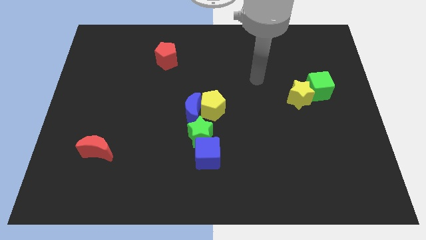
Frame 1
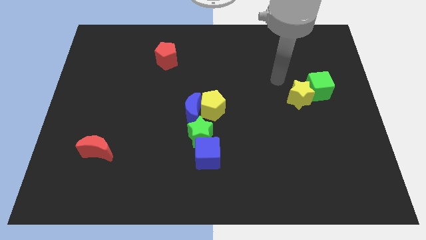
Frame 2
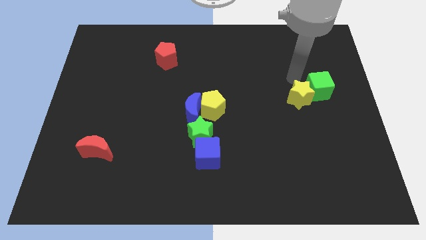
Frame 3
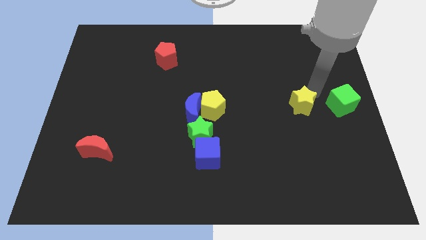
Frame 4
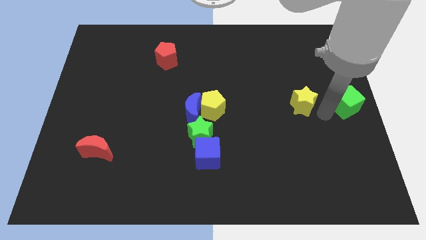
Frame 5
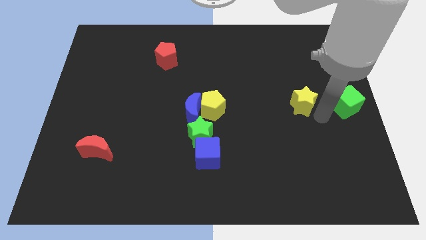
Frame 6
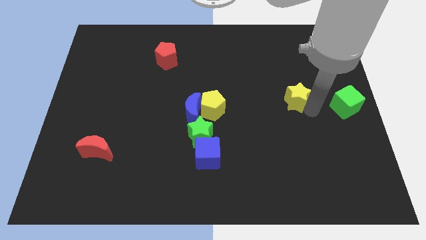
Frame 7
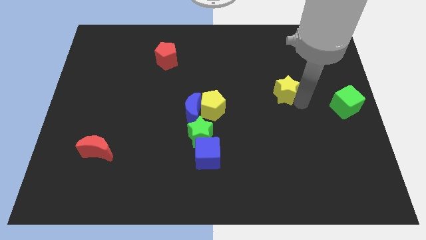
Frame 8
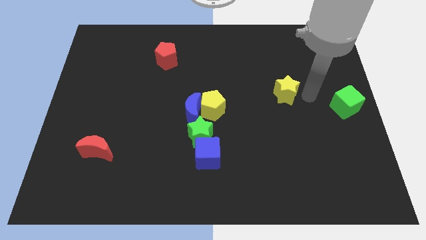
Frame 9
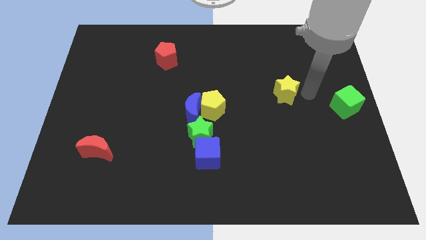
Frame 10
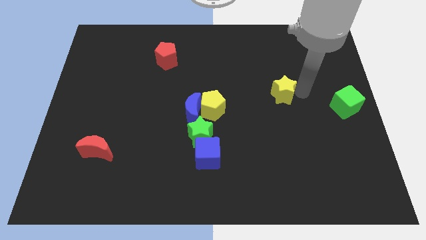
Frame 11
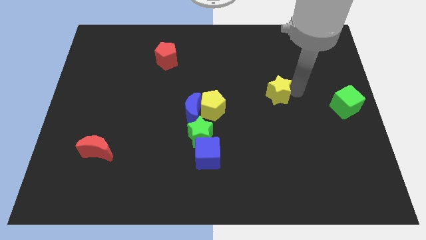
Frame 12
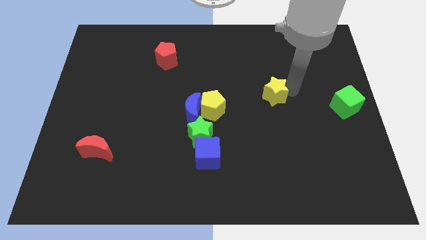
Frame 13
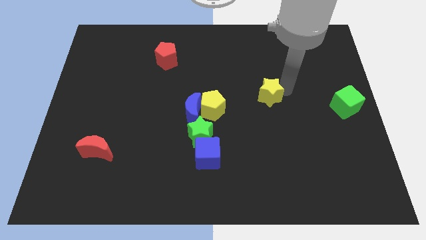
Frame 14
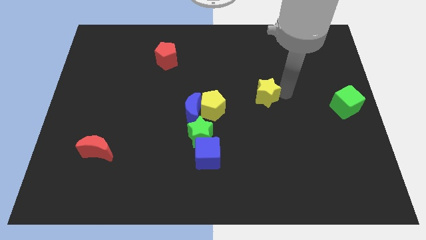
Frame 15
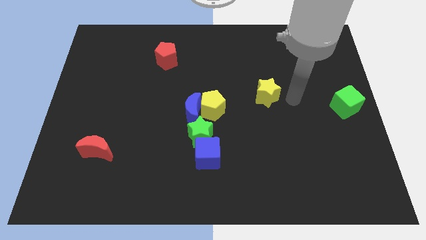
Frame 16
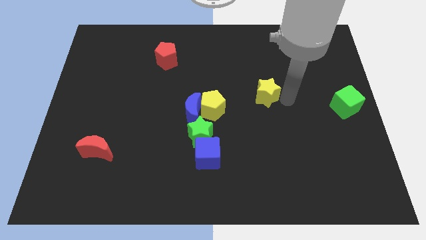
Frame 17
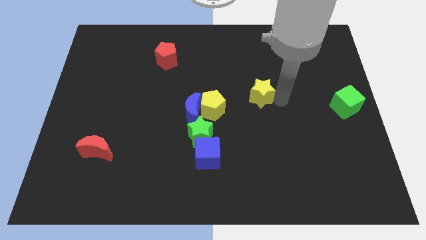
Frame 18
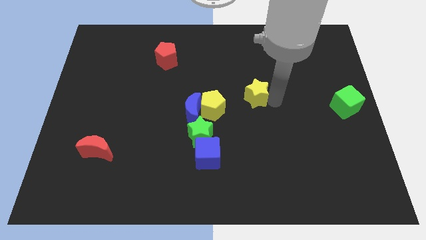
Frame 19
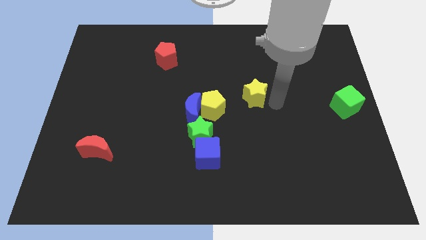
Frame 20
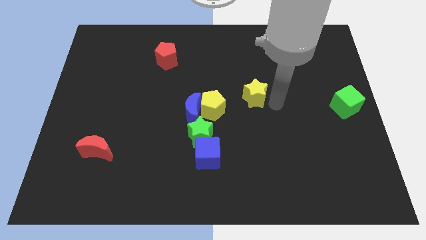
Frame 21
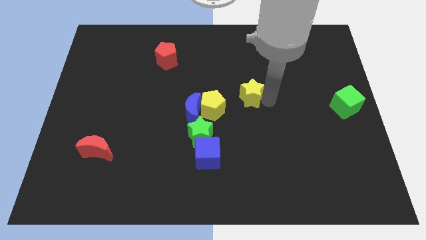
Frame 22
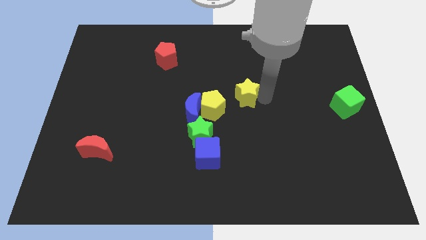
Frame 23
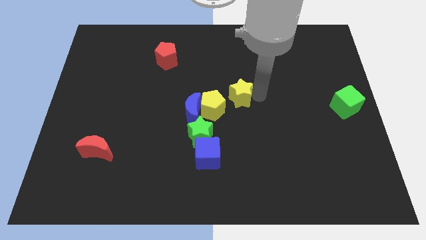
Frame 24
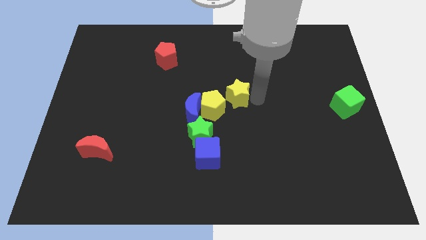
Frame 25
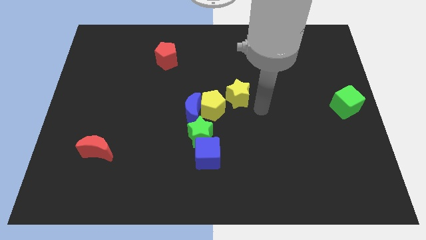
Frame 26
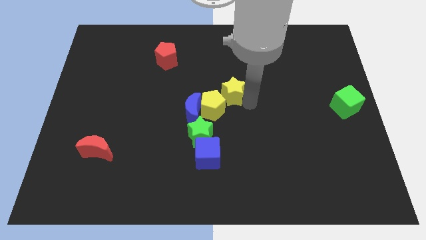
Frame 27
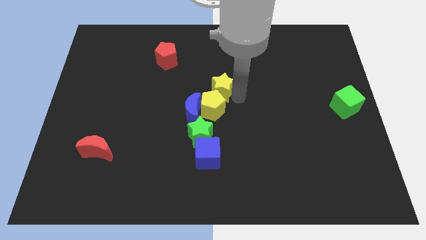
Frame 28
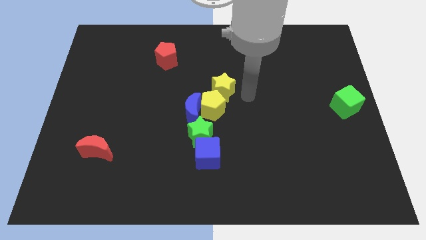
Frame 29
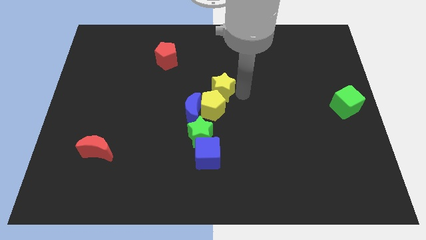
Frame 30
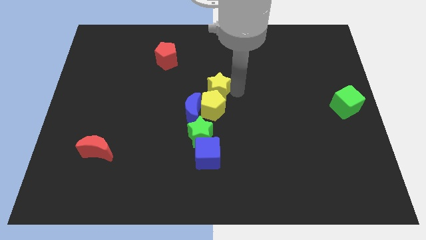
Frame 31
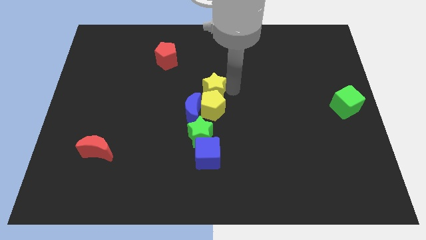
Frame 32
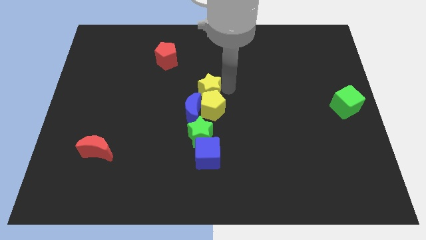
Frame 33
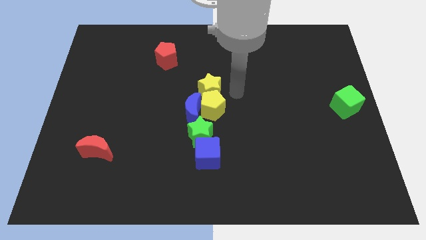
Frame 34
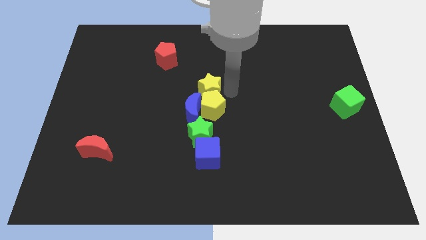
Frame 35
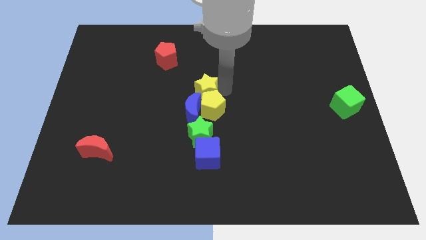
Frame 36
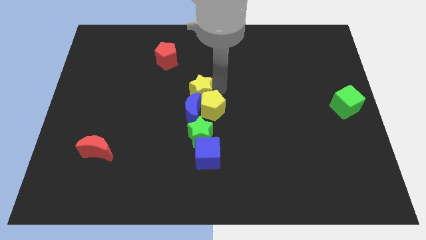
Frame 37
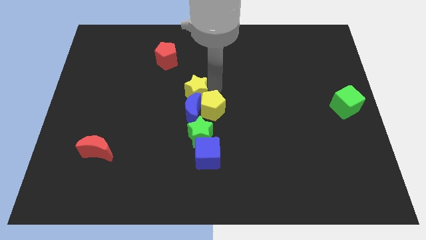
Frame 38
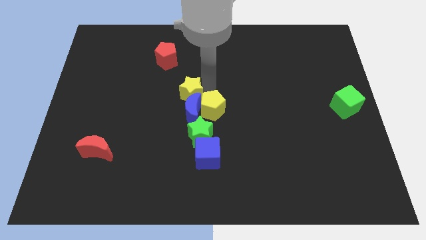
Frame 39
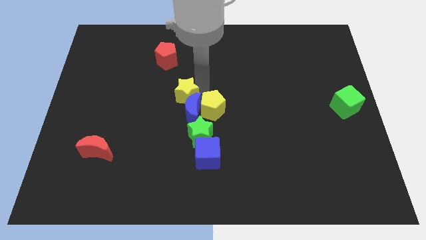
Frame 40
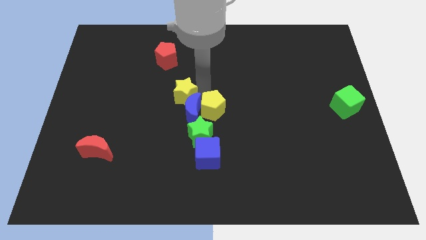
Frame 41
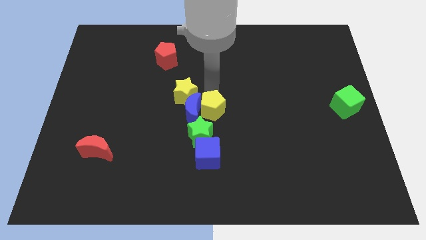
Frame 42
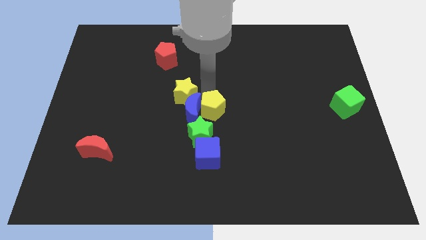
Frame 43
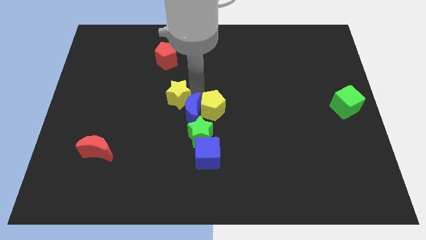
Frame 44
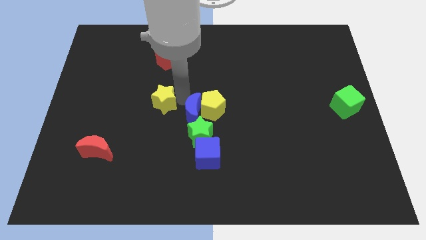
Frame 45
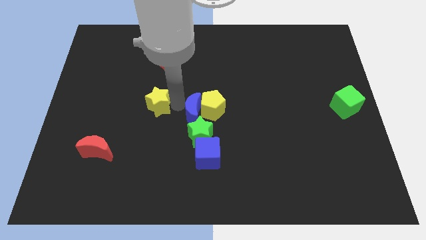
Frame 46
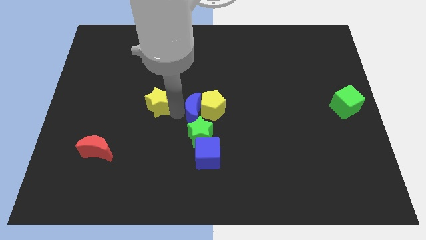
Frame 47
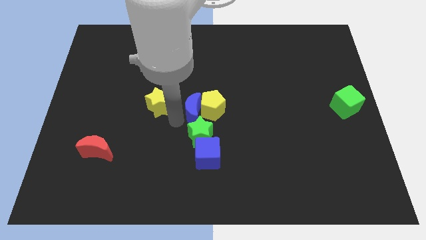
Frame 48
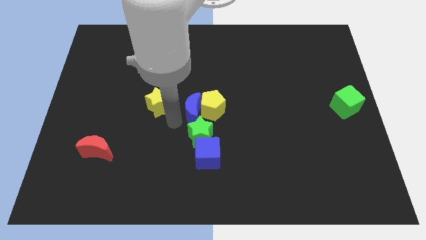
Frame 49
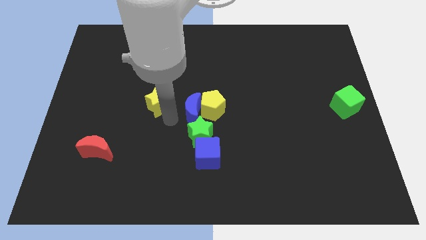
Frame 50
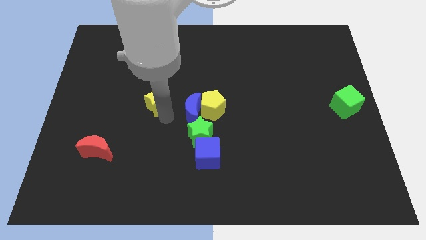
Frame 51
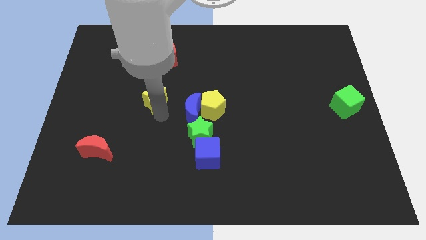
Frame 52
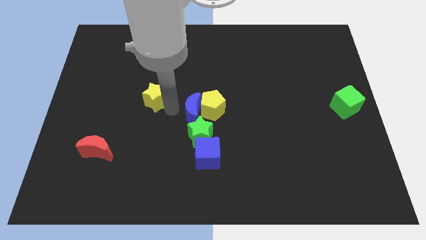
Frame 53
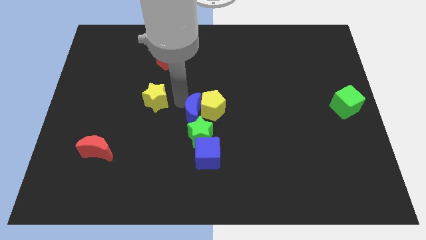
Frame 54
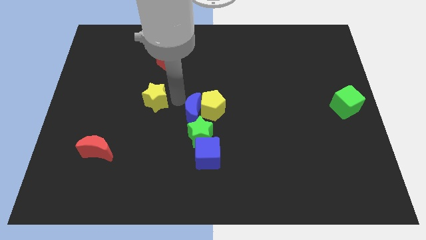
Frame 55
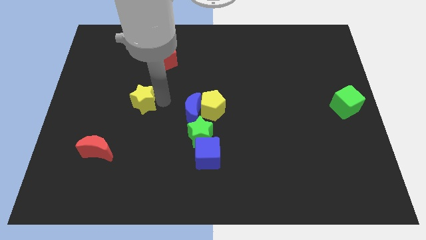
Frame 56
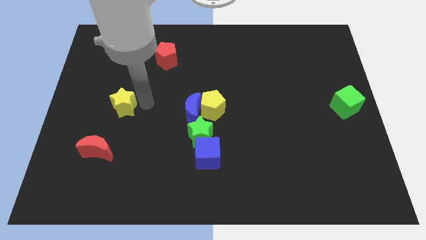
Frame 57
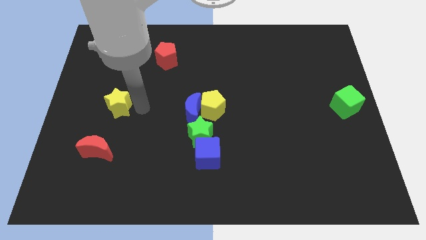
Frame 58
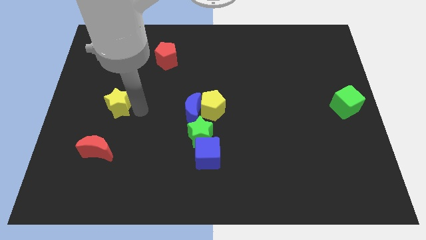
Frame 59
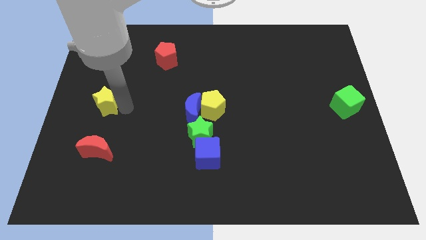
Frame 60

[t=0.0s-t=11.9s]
slide the yellow star to the left side

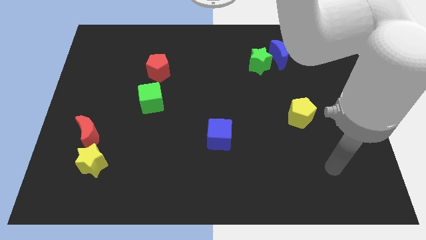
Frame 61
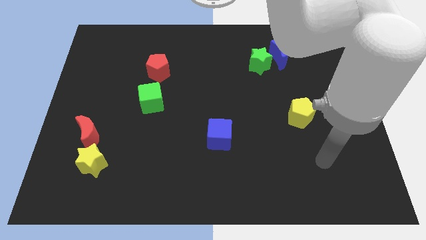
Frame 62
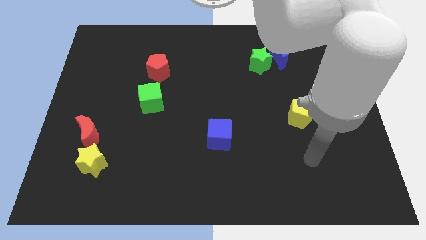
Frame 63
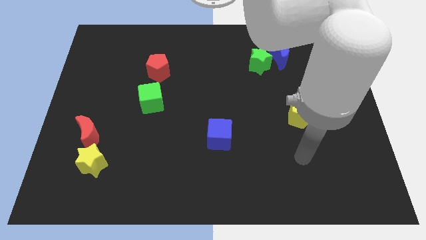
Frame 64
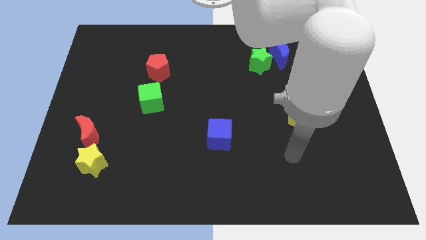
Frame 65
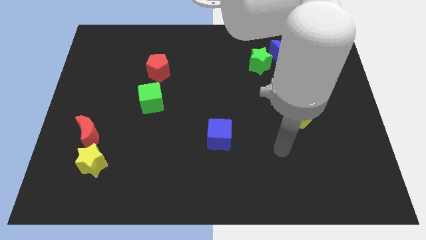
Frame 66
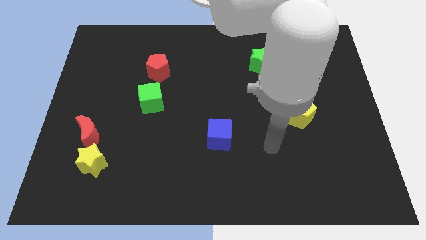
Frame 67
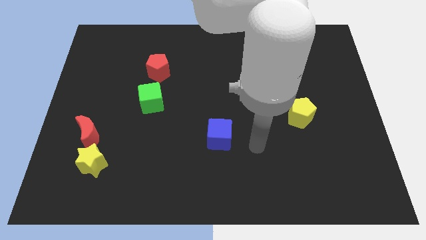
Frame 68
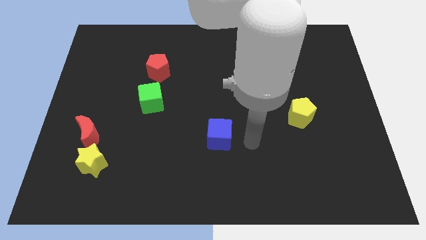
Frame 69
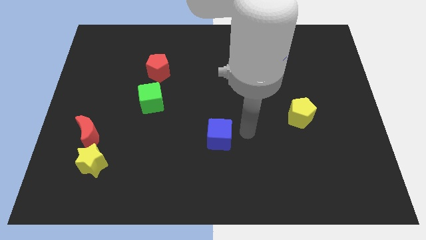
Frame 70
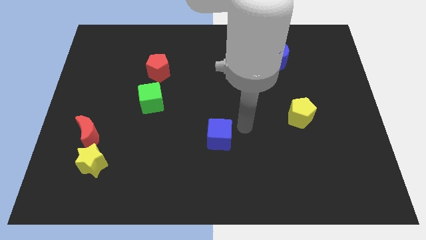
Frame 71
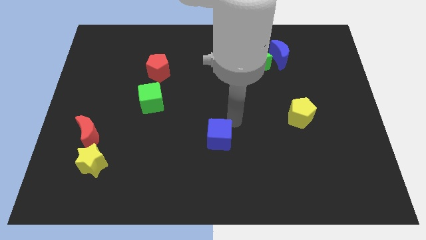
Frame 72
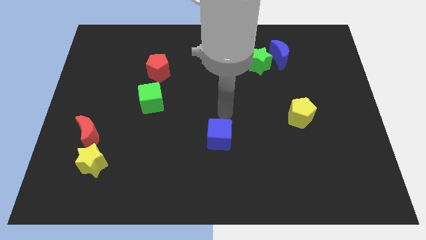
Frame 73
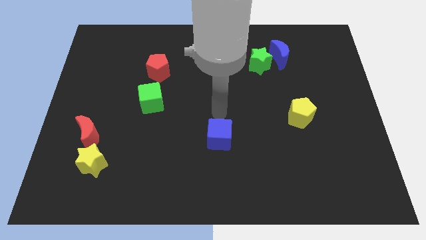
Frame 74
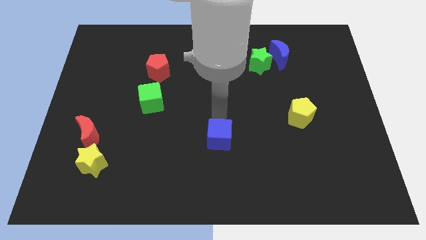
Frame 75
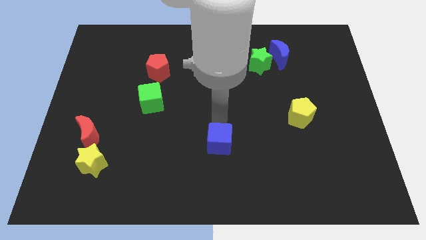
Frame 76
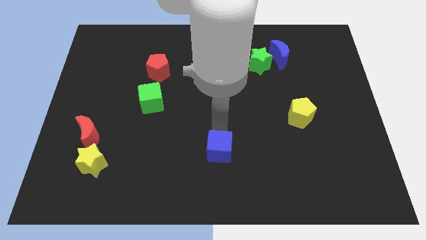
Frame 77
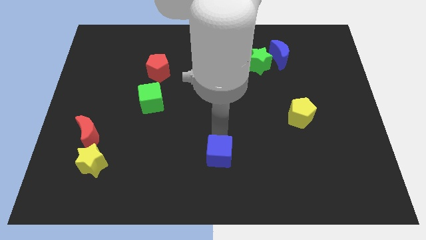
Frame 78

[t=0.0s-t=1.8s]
slide the blue cube to the bottom
